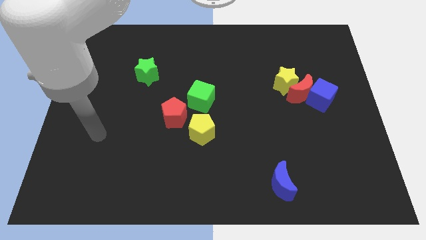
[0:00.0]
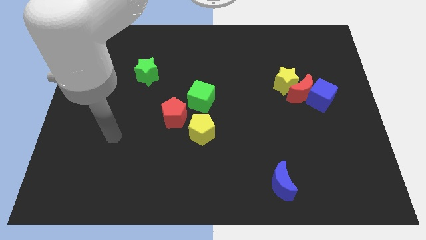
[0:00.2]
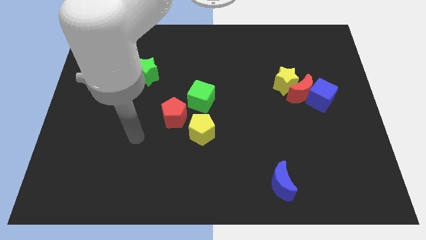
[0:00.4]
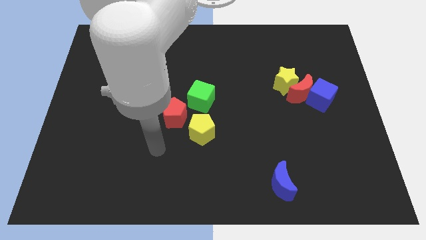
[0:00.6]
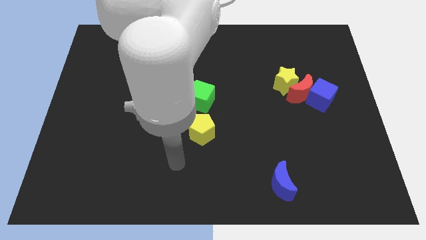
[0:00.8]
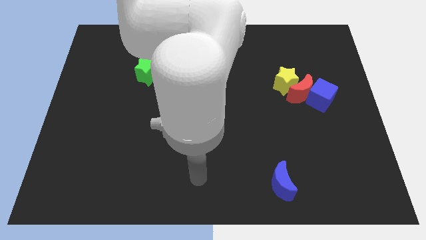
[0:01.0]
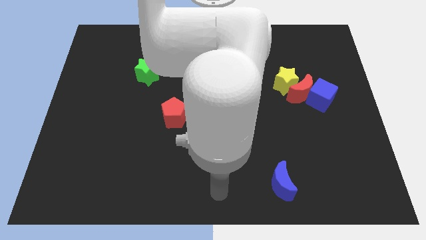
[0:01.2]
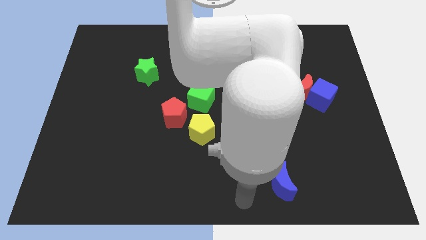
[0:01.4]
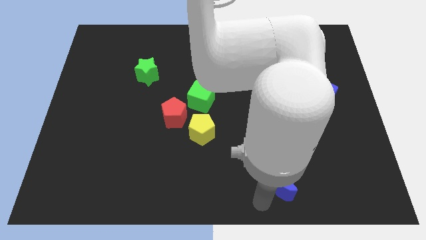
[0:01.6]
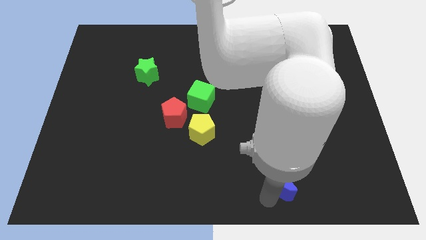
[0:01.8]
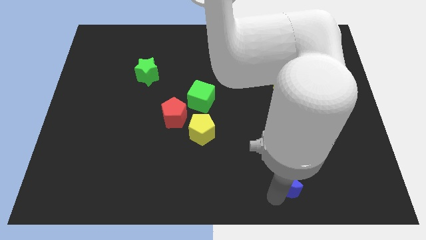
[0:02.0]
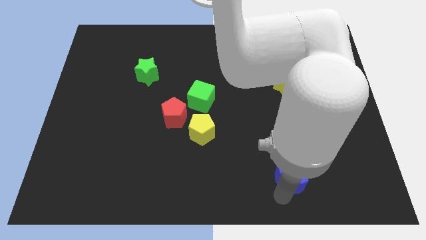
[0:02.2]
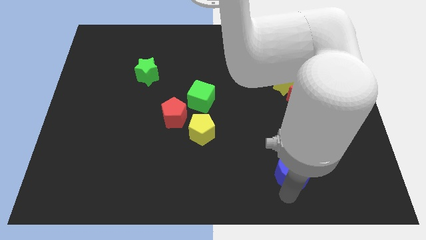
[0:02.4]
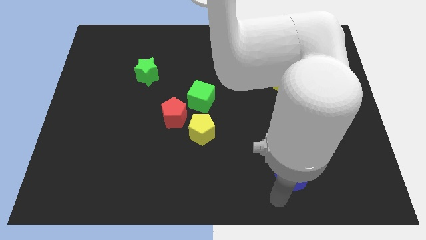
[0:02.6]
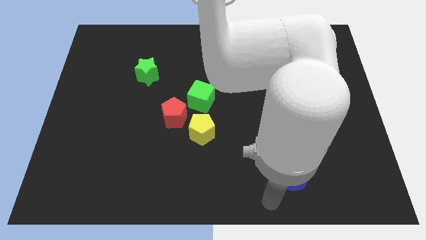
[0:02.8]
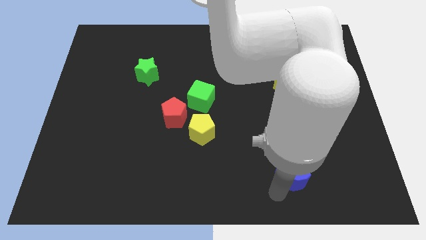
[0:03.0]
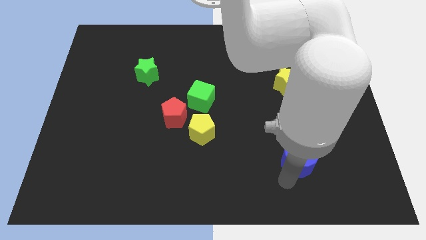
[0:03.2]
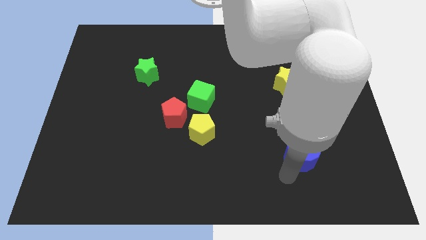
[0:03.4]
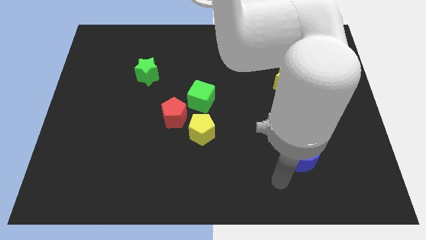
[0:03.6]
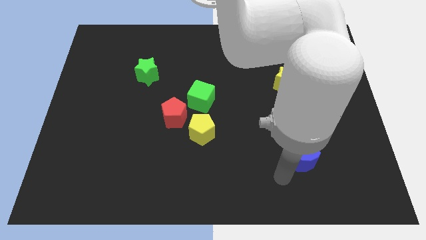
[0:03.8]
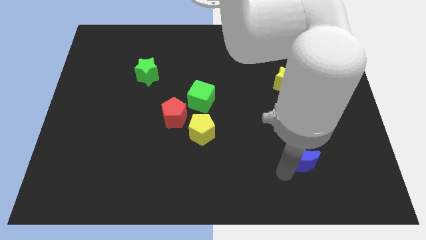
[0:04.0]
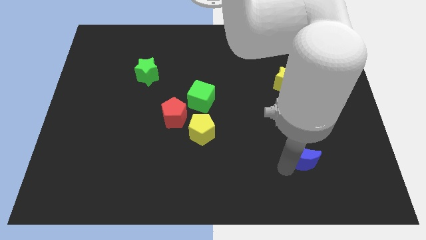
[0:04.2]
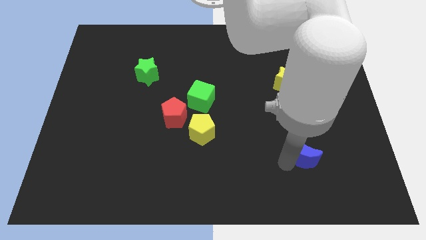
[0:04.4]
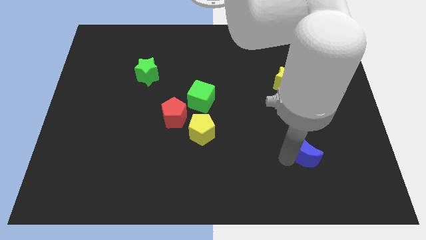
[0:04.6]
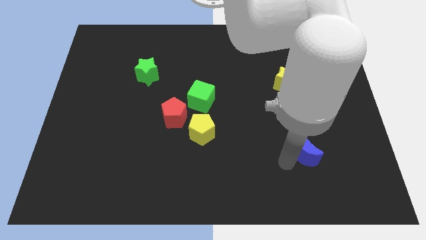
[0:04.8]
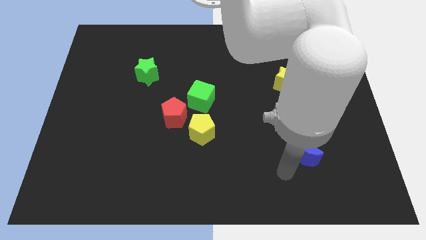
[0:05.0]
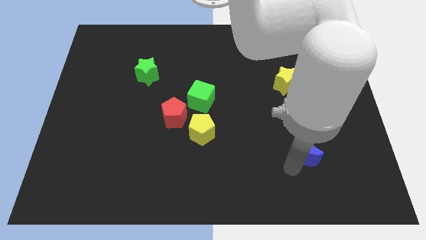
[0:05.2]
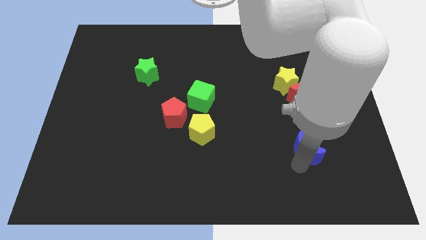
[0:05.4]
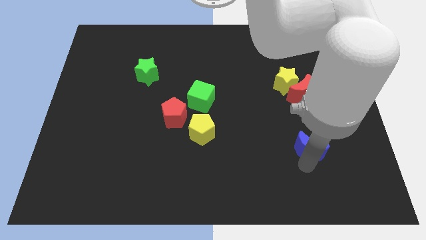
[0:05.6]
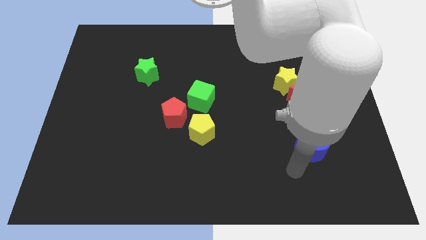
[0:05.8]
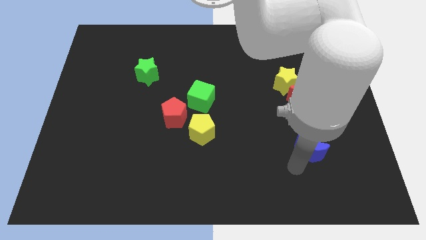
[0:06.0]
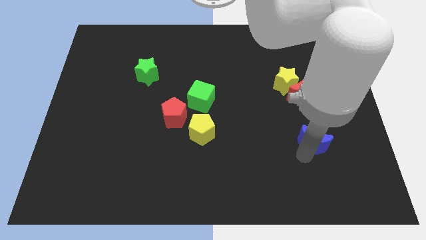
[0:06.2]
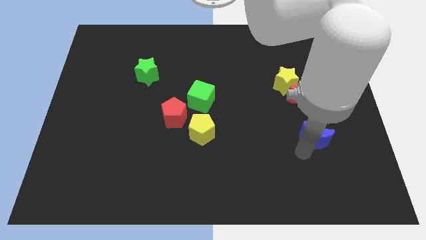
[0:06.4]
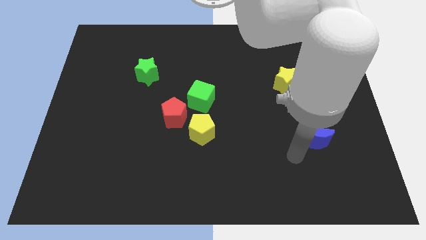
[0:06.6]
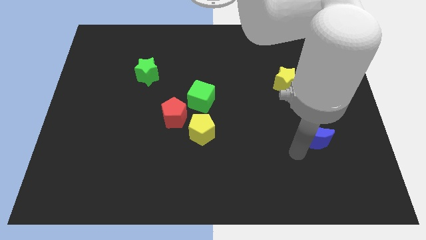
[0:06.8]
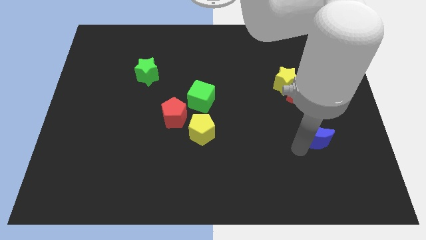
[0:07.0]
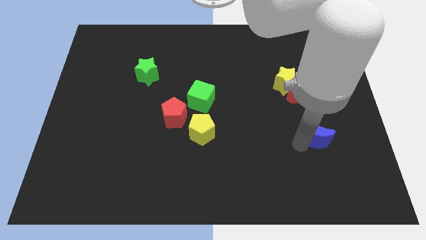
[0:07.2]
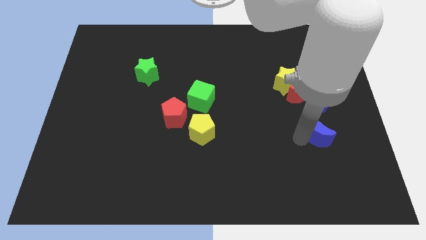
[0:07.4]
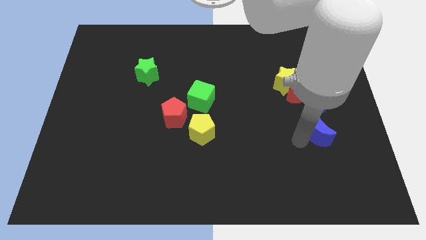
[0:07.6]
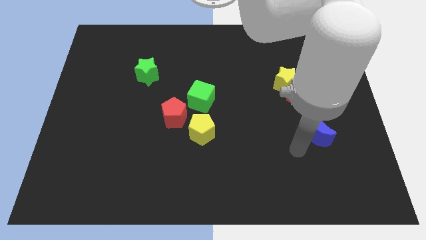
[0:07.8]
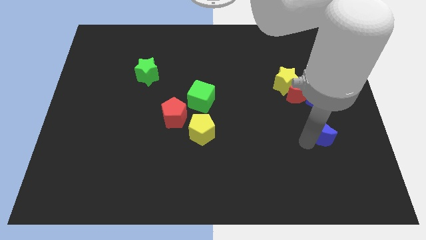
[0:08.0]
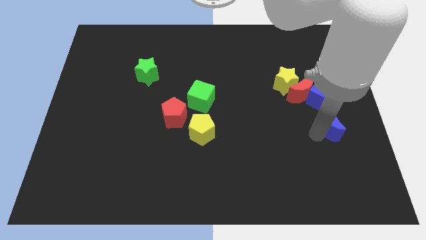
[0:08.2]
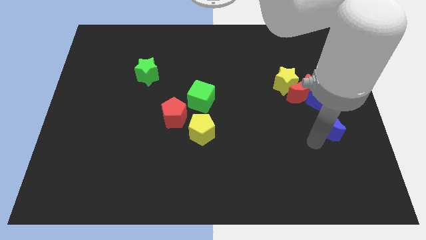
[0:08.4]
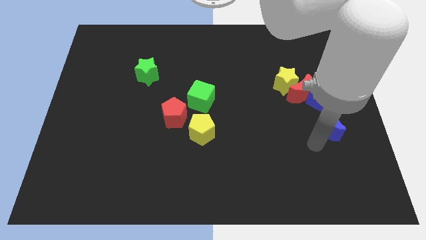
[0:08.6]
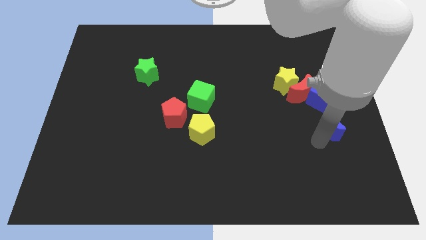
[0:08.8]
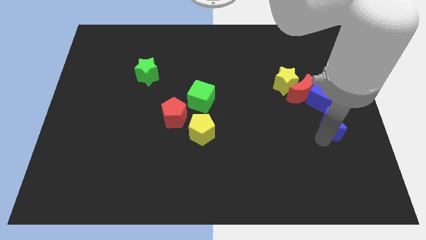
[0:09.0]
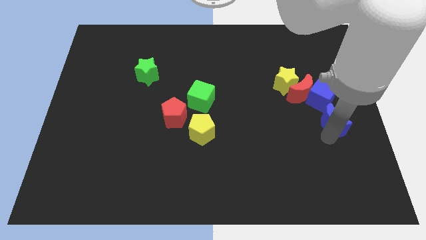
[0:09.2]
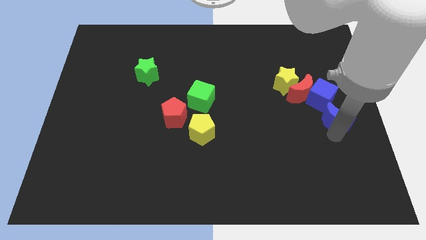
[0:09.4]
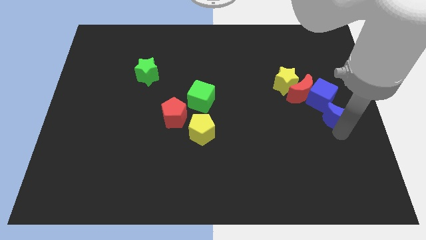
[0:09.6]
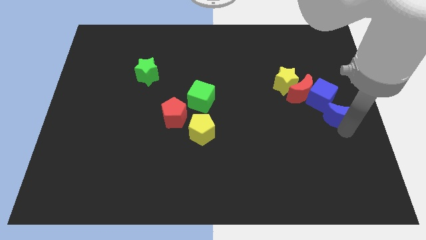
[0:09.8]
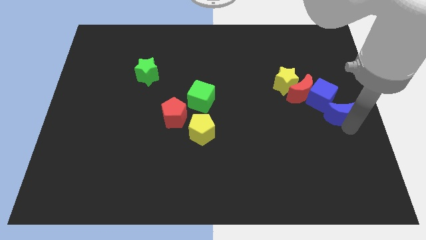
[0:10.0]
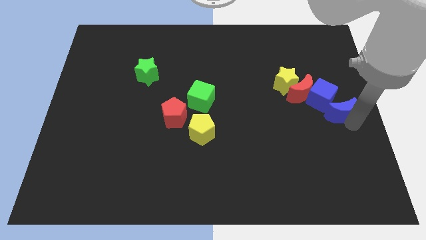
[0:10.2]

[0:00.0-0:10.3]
put the blue moon next to the blue cube

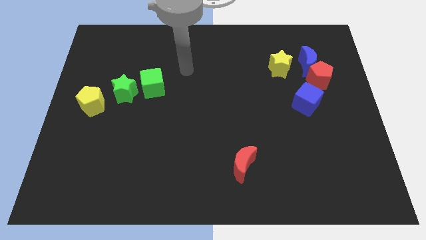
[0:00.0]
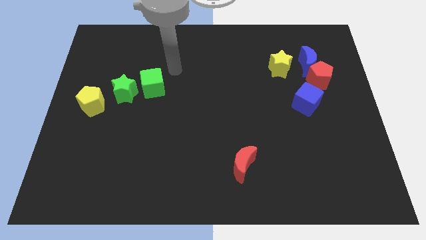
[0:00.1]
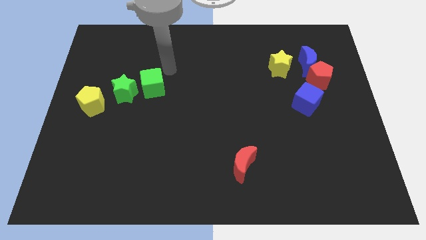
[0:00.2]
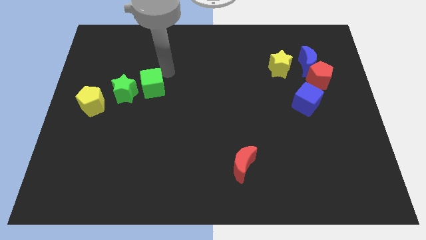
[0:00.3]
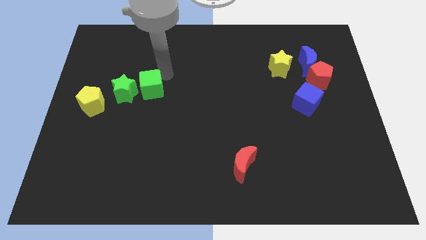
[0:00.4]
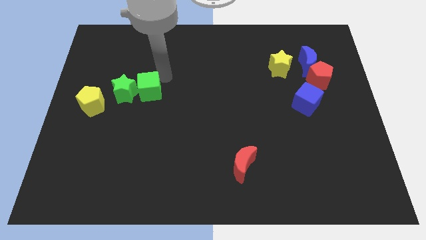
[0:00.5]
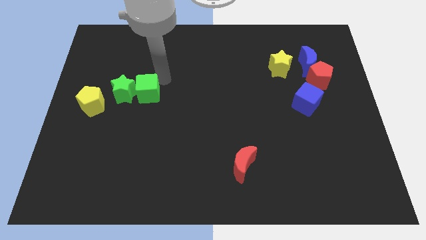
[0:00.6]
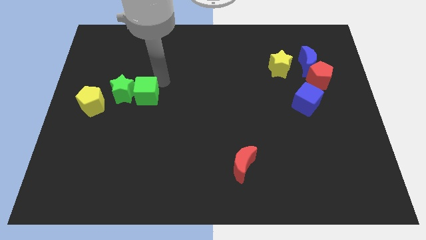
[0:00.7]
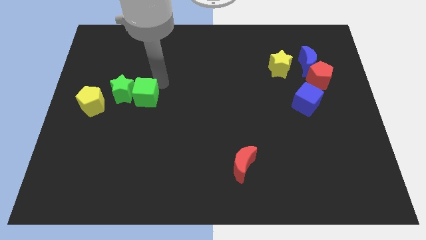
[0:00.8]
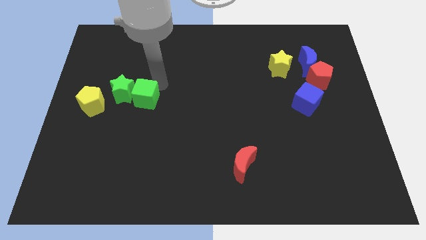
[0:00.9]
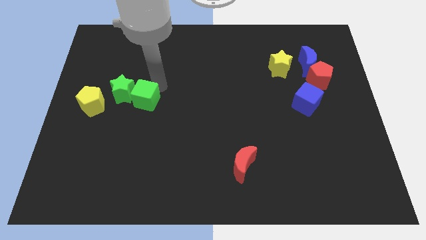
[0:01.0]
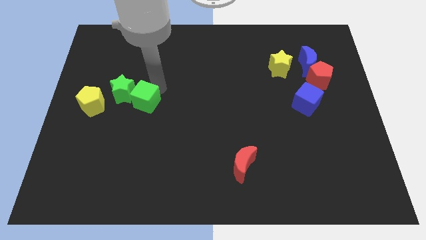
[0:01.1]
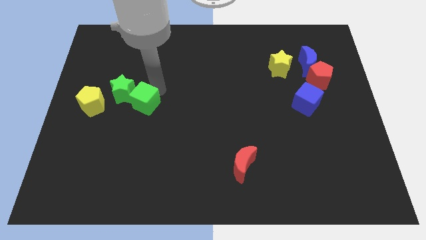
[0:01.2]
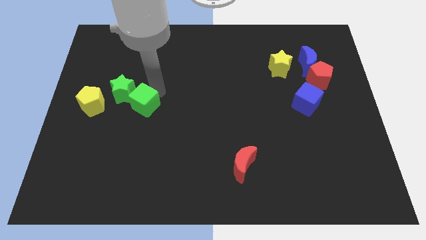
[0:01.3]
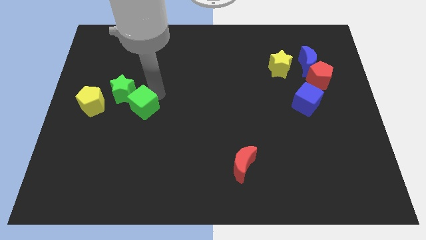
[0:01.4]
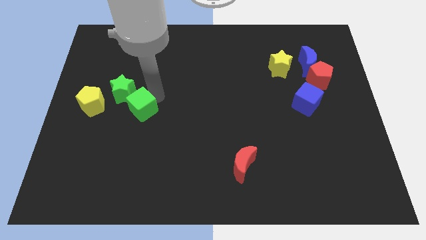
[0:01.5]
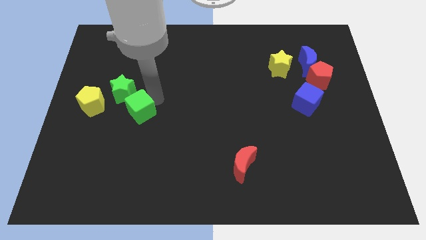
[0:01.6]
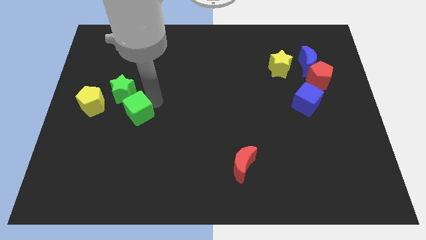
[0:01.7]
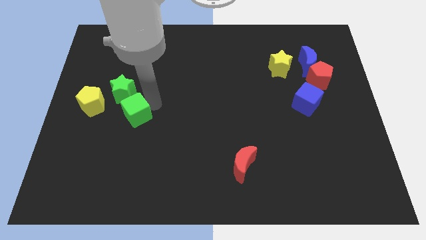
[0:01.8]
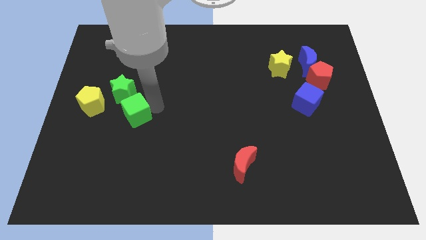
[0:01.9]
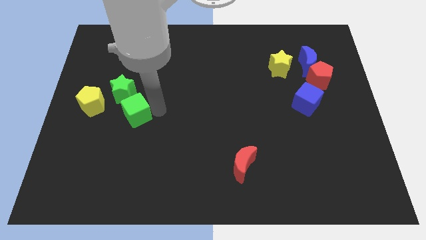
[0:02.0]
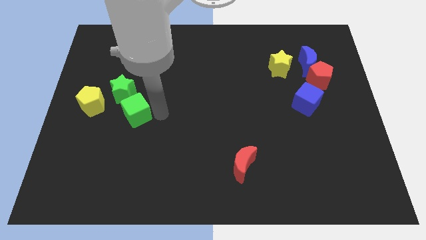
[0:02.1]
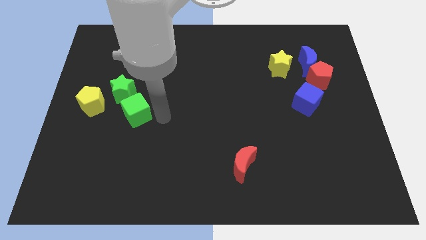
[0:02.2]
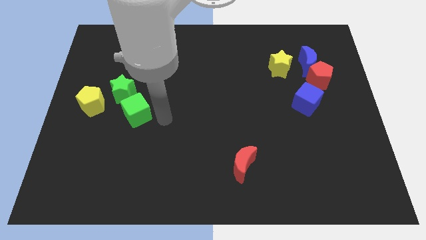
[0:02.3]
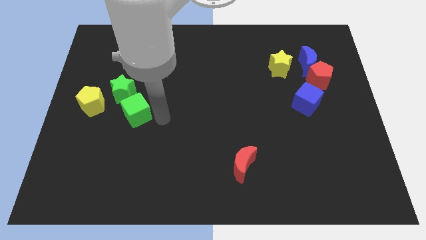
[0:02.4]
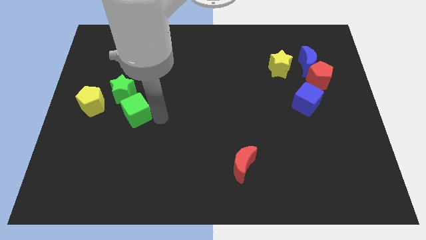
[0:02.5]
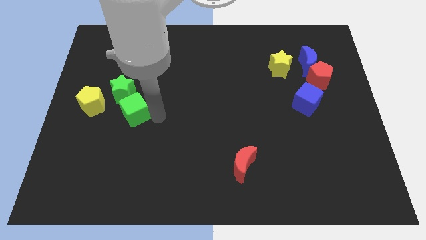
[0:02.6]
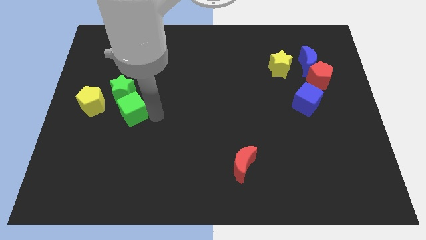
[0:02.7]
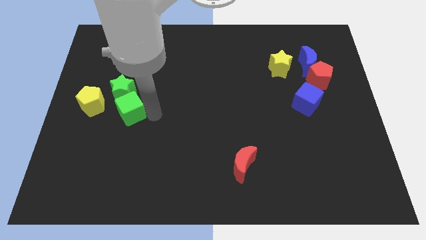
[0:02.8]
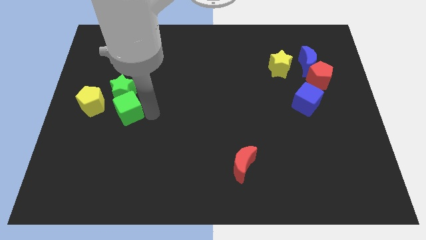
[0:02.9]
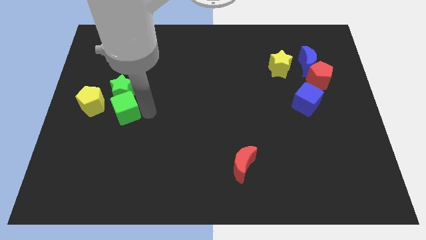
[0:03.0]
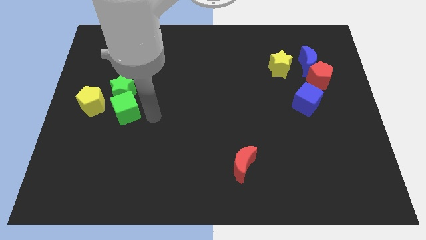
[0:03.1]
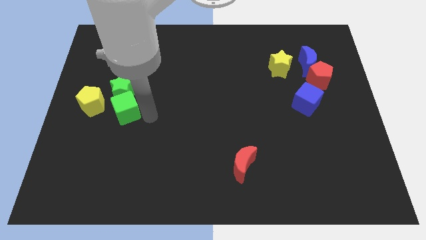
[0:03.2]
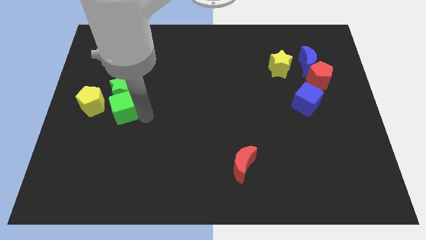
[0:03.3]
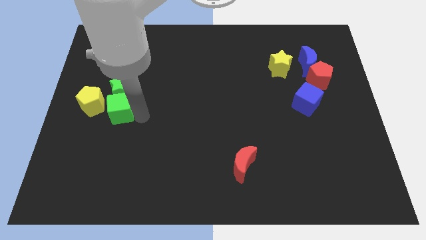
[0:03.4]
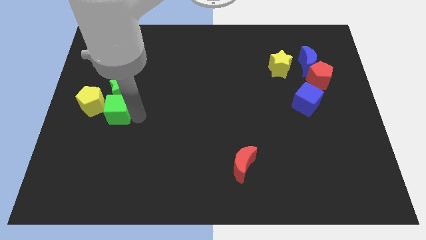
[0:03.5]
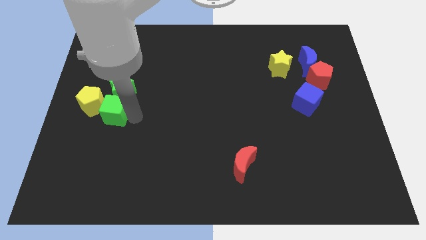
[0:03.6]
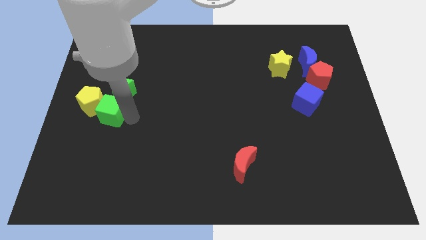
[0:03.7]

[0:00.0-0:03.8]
move the green cube towards the yellow pentagon
